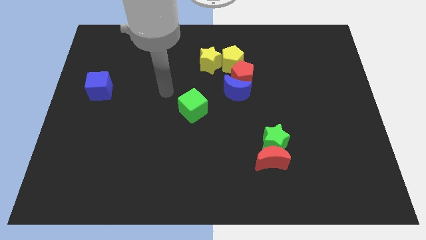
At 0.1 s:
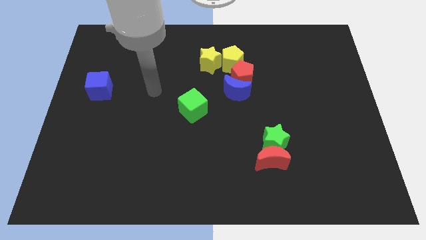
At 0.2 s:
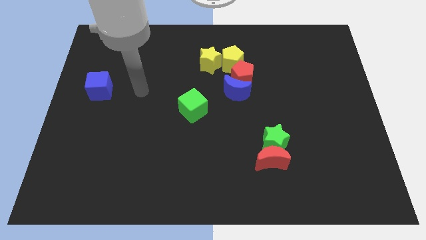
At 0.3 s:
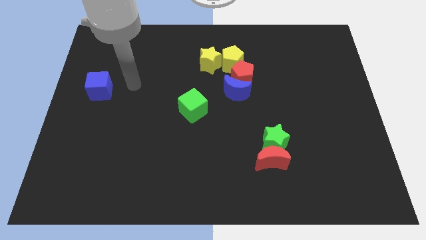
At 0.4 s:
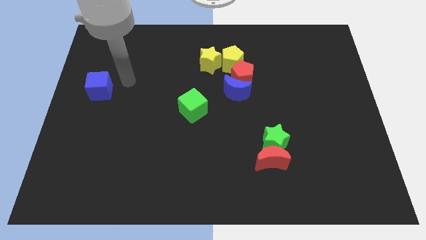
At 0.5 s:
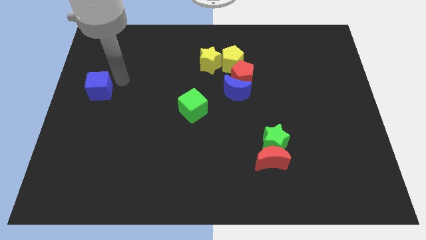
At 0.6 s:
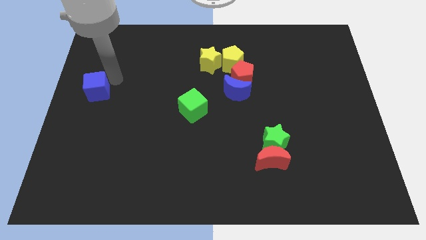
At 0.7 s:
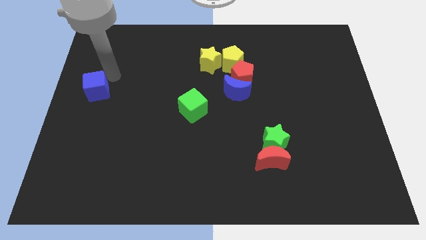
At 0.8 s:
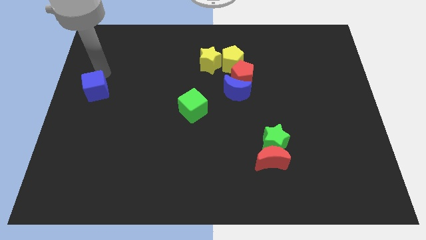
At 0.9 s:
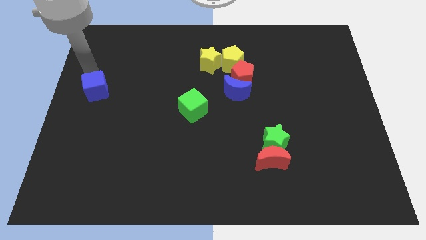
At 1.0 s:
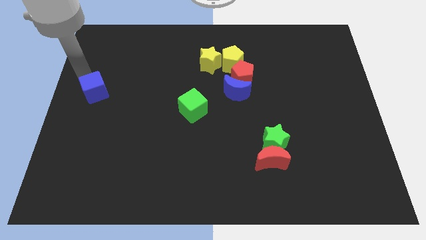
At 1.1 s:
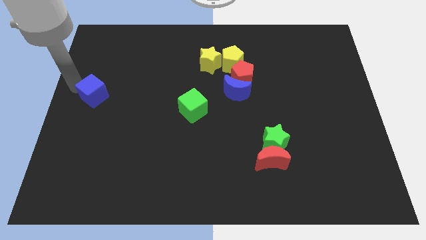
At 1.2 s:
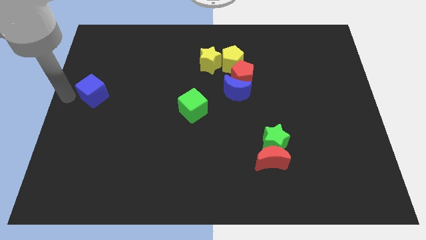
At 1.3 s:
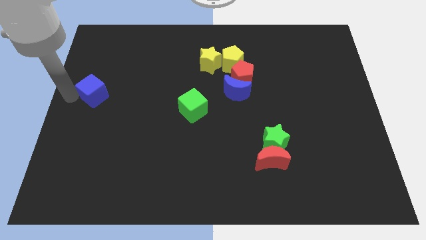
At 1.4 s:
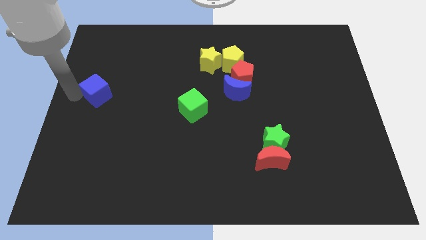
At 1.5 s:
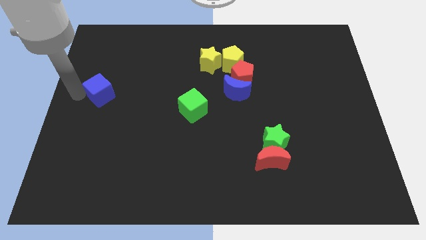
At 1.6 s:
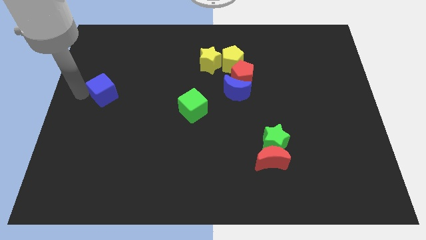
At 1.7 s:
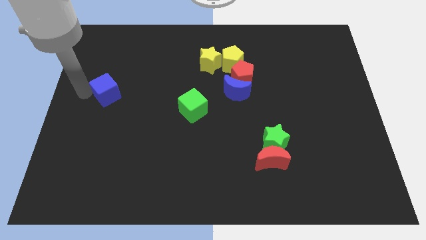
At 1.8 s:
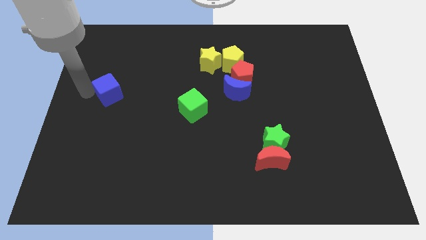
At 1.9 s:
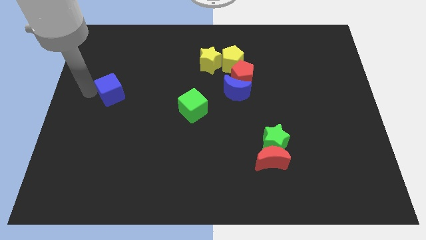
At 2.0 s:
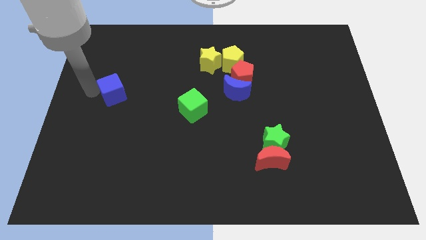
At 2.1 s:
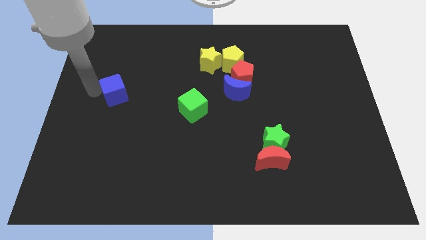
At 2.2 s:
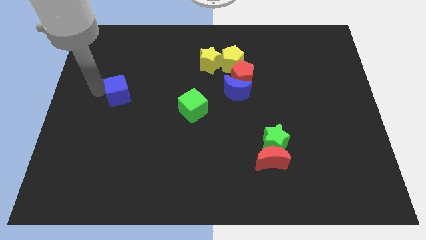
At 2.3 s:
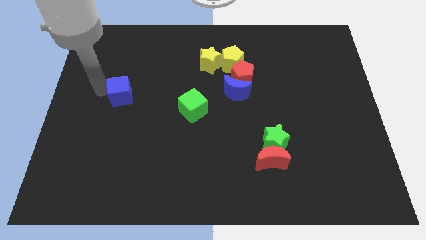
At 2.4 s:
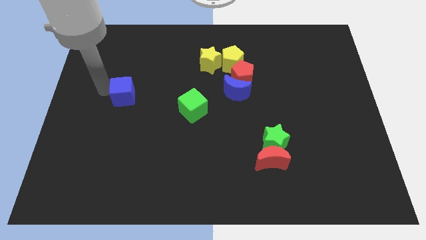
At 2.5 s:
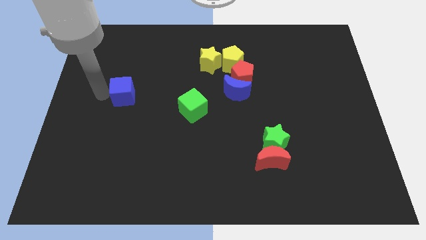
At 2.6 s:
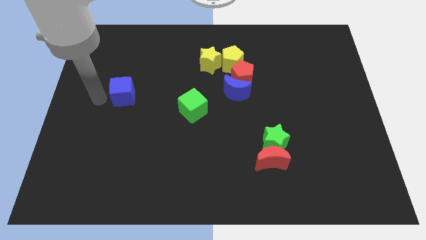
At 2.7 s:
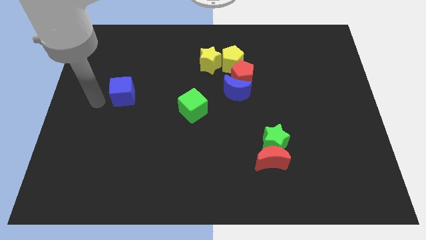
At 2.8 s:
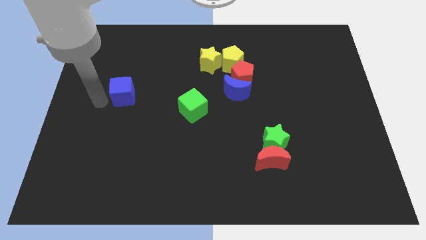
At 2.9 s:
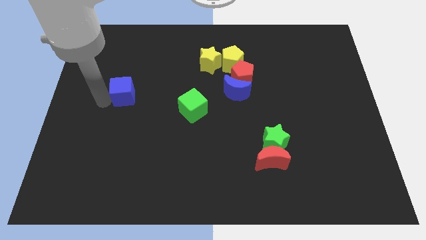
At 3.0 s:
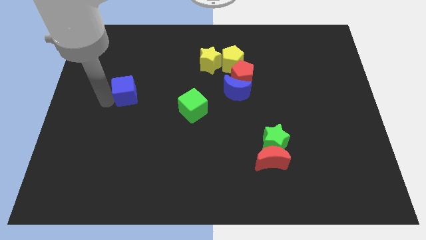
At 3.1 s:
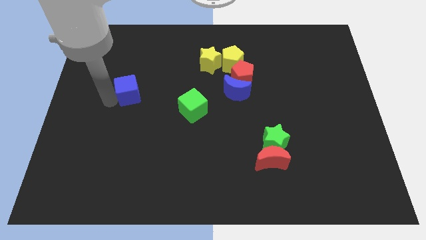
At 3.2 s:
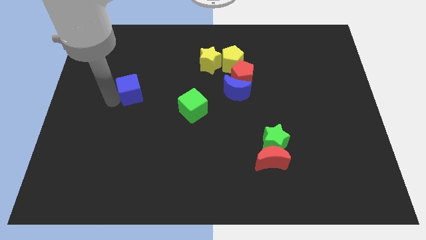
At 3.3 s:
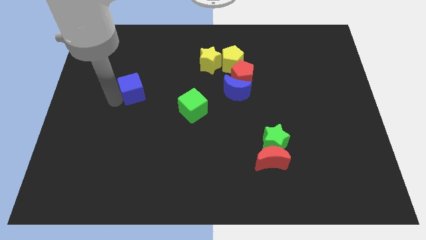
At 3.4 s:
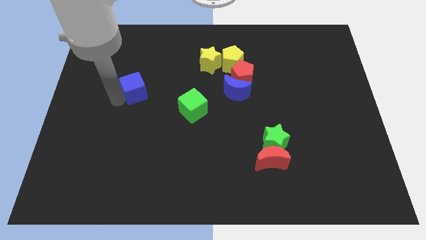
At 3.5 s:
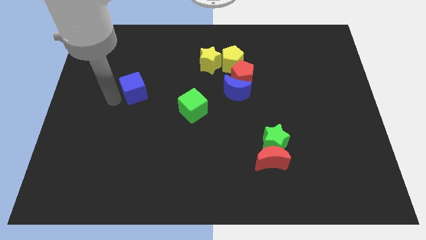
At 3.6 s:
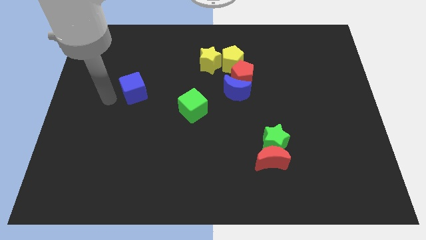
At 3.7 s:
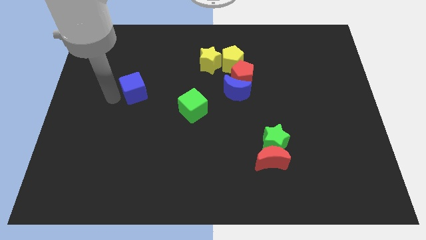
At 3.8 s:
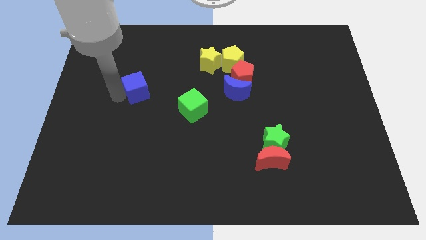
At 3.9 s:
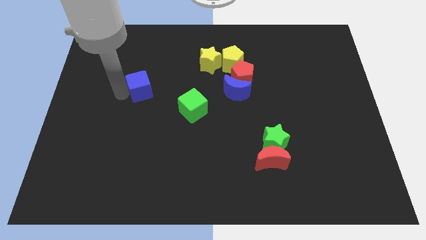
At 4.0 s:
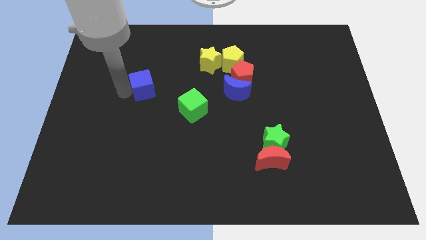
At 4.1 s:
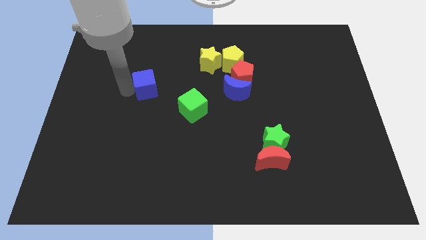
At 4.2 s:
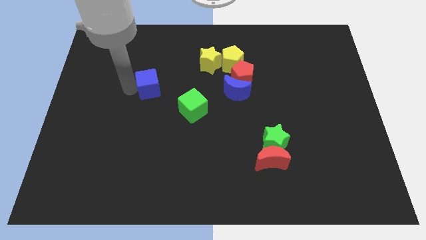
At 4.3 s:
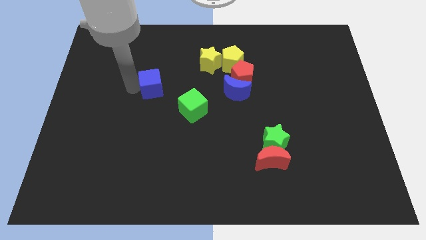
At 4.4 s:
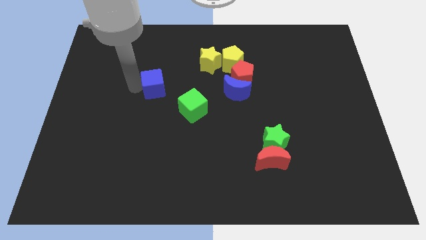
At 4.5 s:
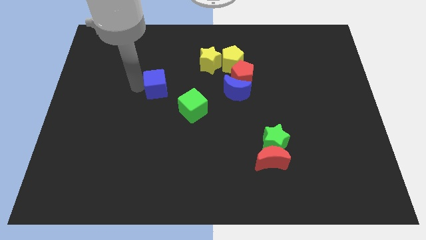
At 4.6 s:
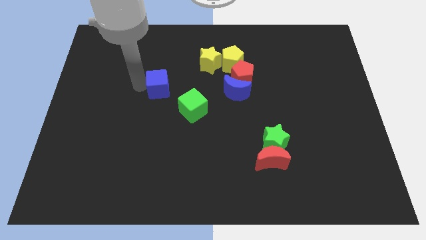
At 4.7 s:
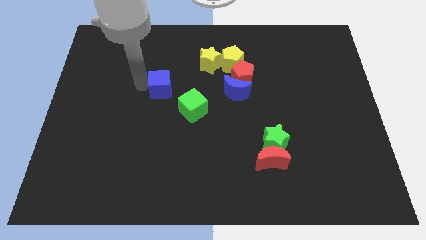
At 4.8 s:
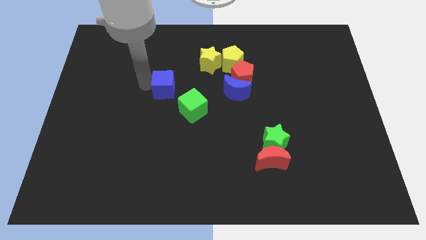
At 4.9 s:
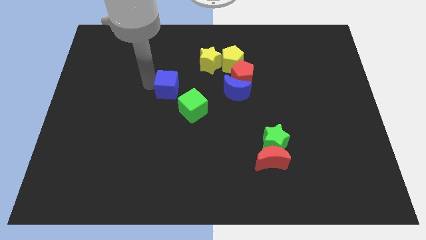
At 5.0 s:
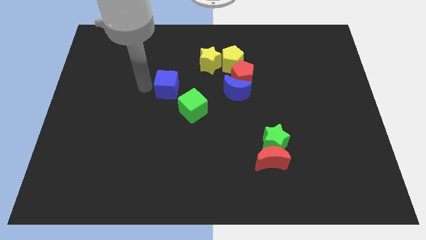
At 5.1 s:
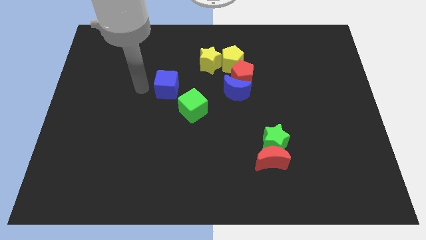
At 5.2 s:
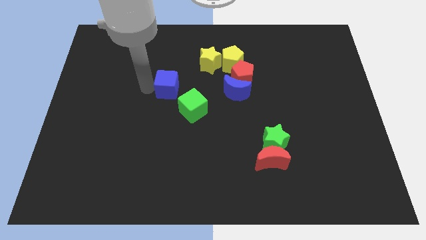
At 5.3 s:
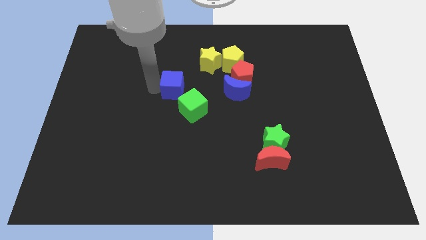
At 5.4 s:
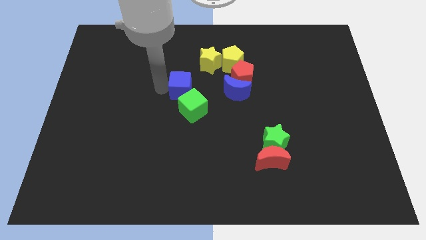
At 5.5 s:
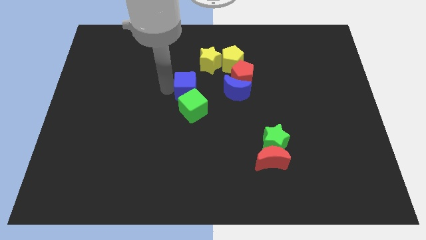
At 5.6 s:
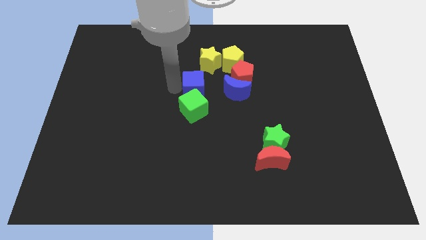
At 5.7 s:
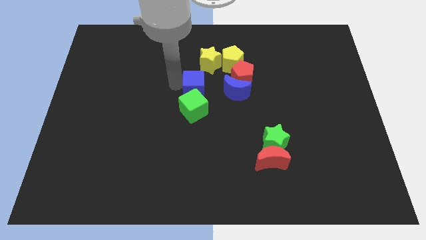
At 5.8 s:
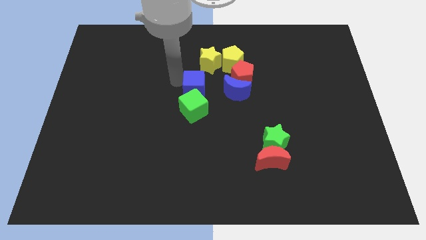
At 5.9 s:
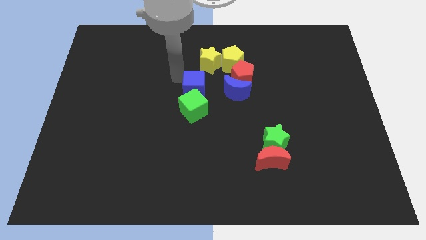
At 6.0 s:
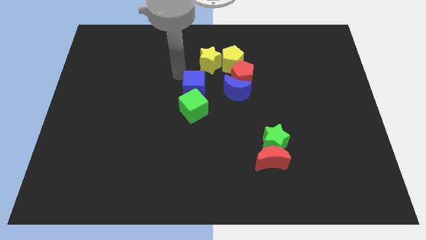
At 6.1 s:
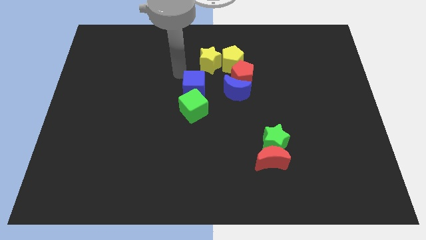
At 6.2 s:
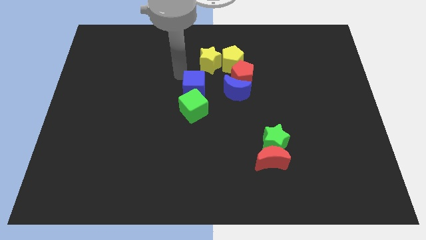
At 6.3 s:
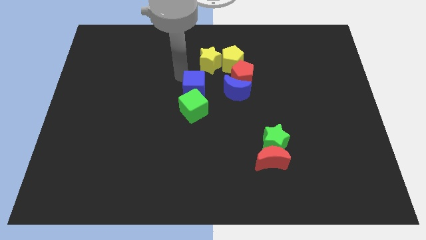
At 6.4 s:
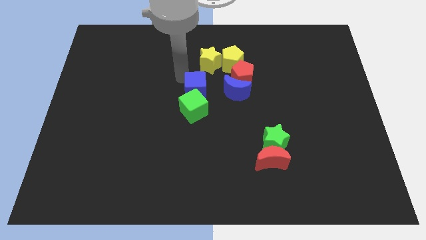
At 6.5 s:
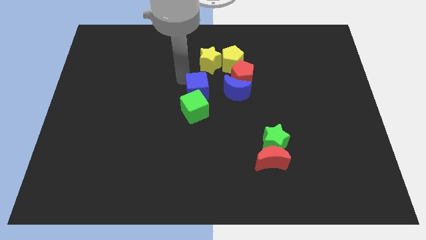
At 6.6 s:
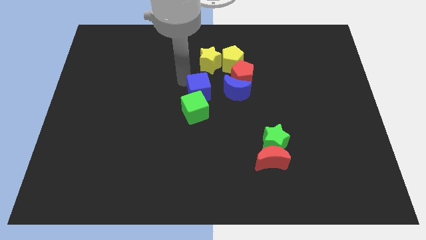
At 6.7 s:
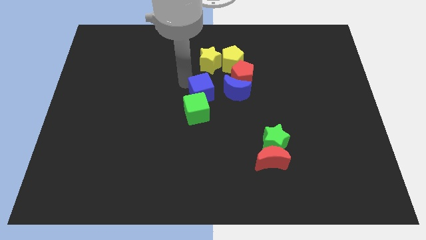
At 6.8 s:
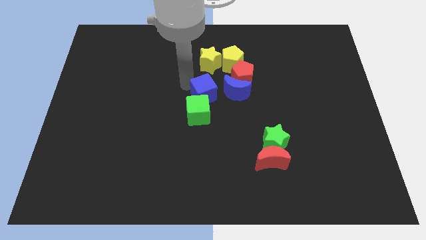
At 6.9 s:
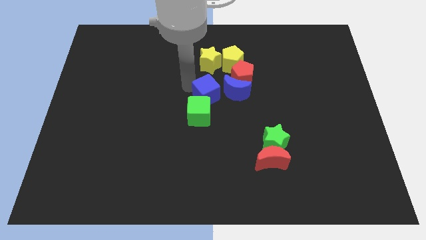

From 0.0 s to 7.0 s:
slide the blue cube to the bottom left side of the blue moon
